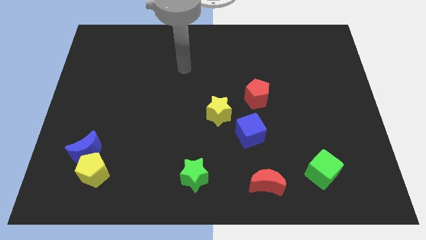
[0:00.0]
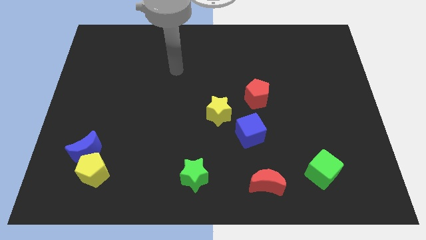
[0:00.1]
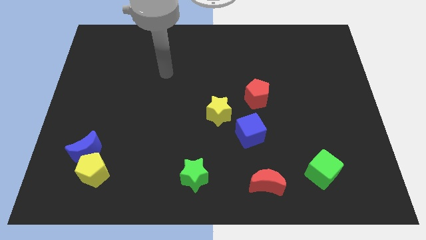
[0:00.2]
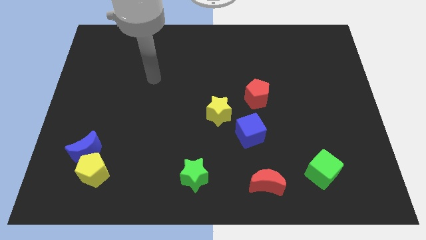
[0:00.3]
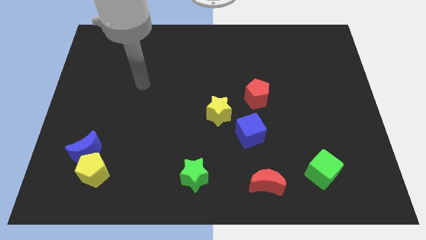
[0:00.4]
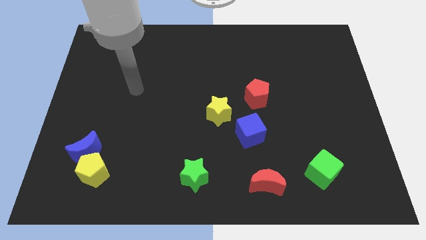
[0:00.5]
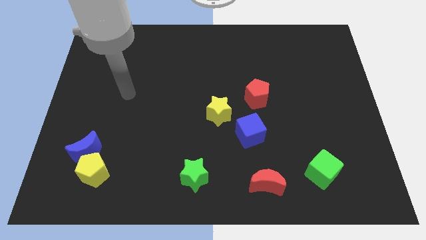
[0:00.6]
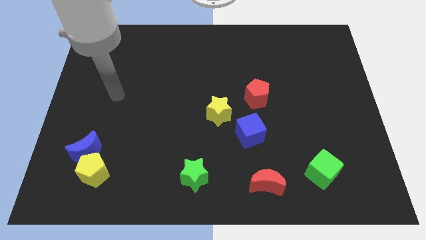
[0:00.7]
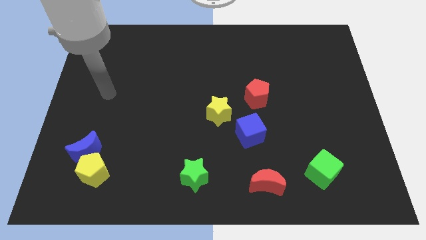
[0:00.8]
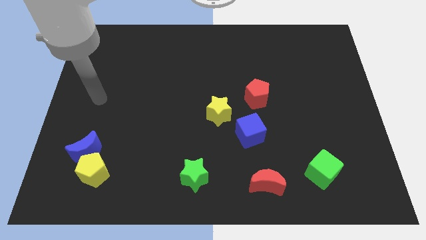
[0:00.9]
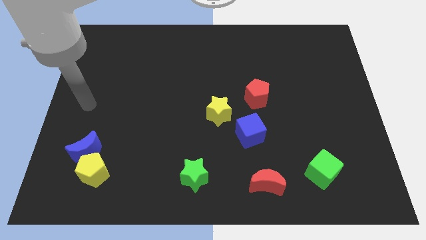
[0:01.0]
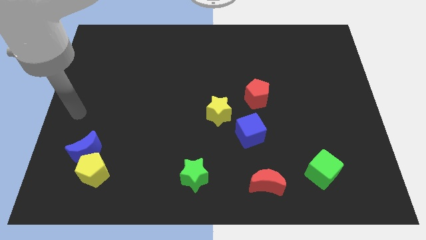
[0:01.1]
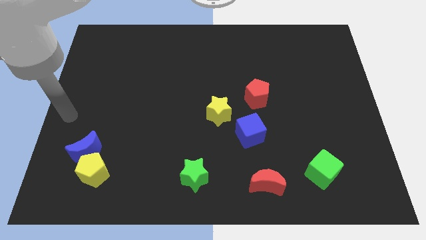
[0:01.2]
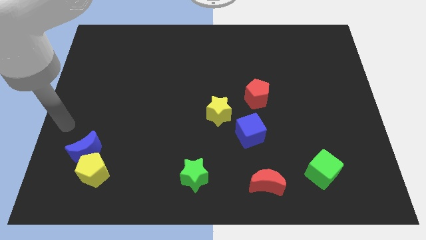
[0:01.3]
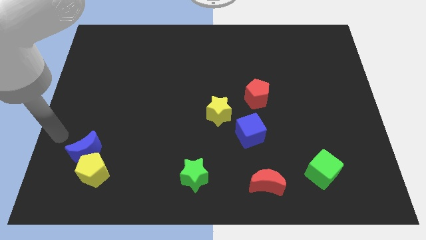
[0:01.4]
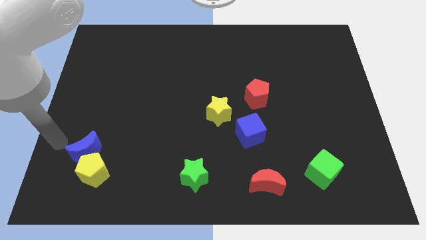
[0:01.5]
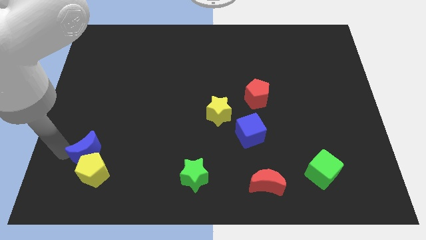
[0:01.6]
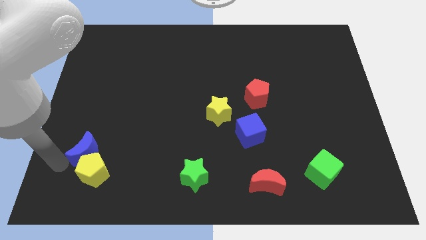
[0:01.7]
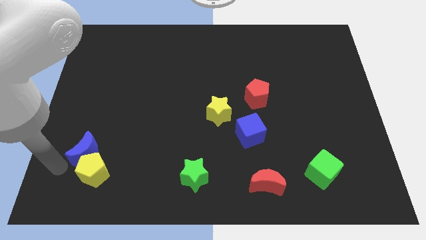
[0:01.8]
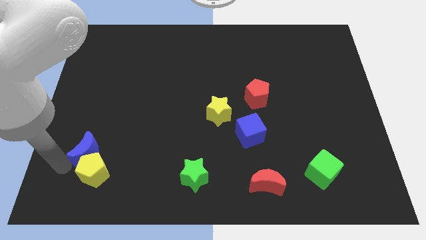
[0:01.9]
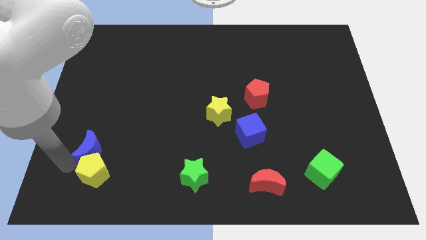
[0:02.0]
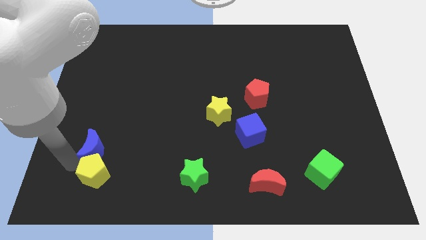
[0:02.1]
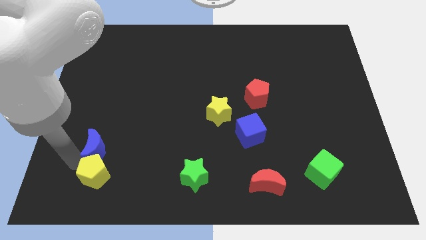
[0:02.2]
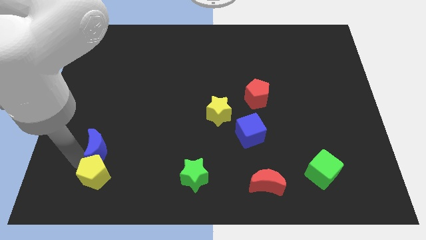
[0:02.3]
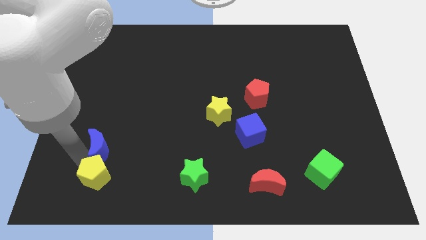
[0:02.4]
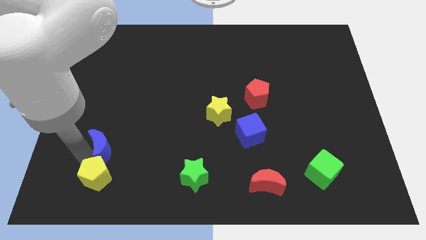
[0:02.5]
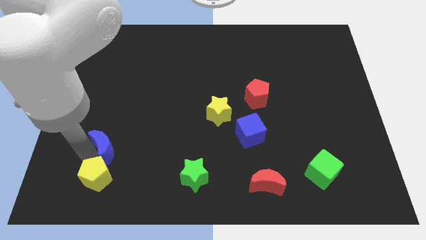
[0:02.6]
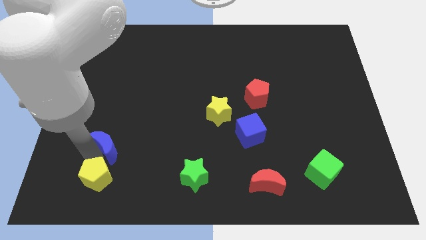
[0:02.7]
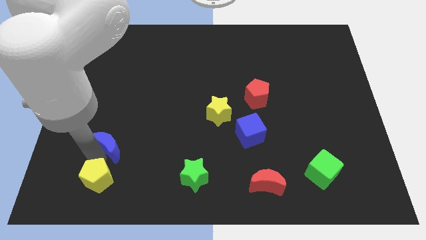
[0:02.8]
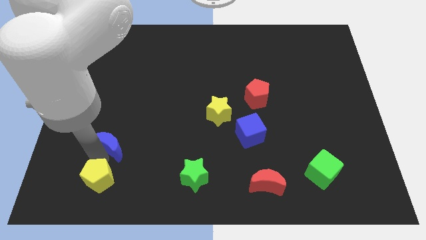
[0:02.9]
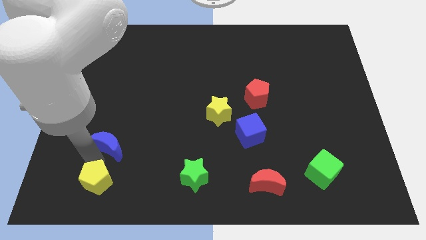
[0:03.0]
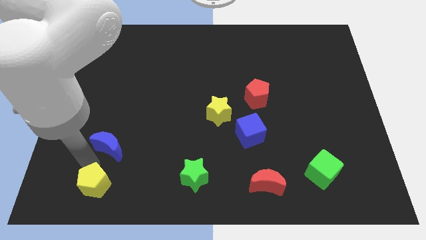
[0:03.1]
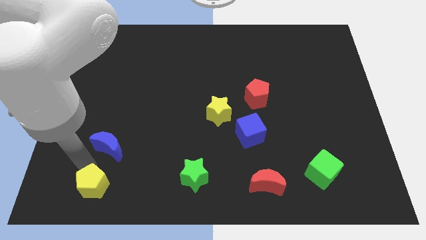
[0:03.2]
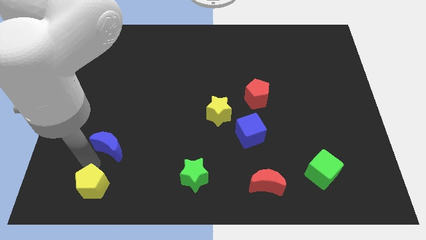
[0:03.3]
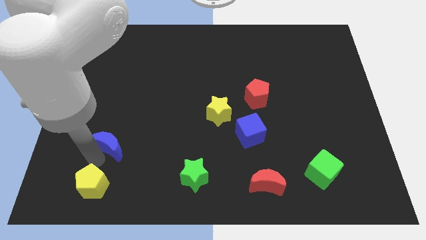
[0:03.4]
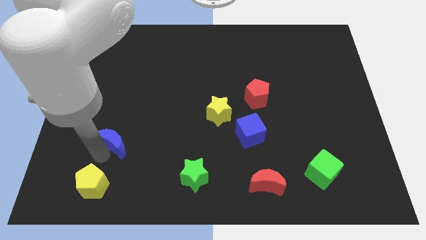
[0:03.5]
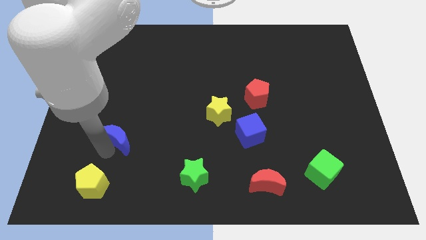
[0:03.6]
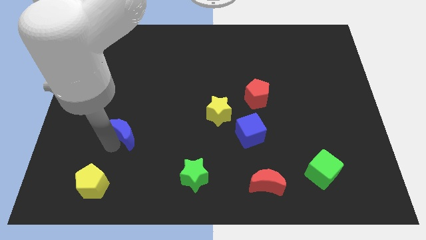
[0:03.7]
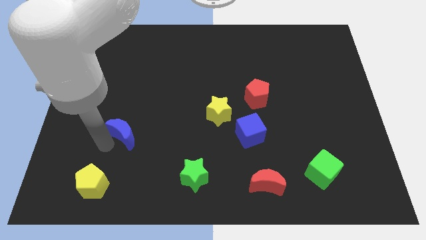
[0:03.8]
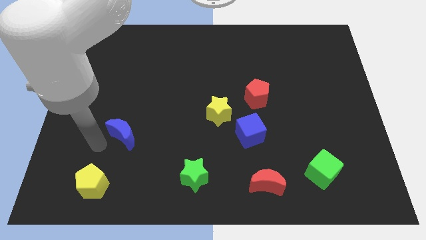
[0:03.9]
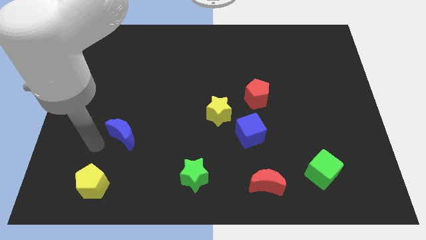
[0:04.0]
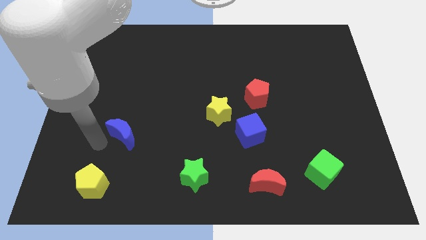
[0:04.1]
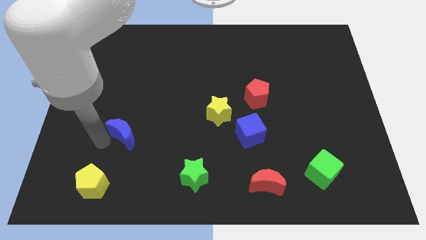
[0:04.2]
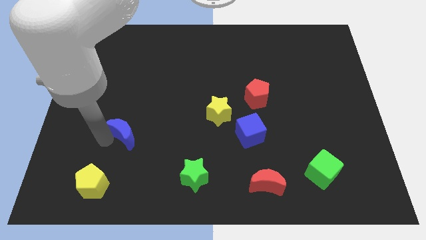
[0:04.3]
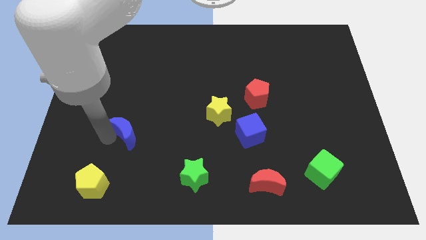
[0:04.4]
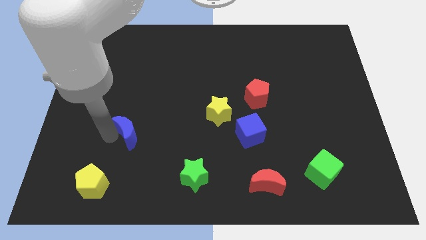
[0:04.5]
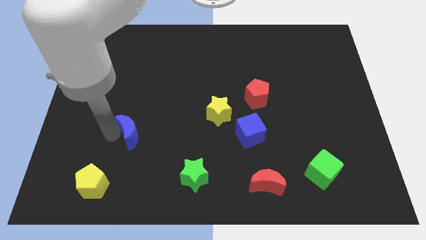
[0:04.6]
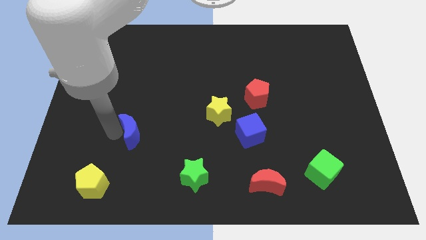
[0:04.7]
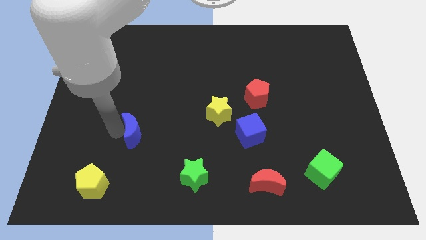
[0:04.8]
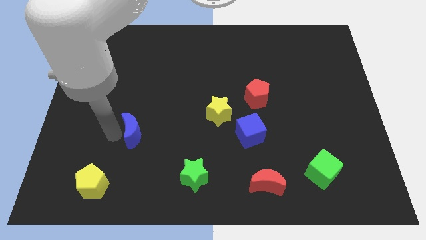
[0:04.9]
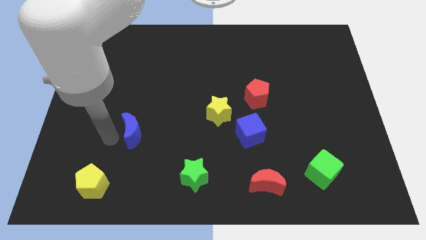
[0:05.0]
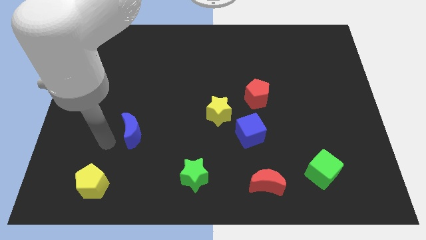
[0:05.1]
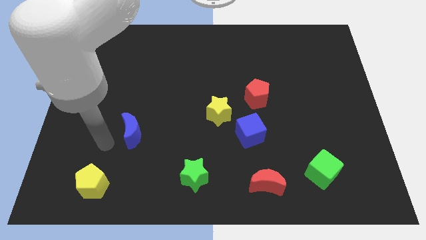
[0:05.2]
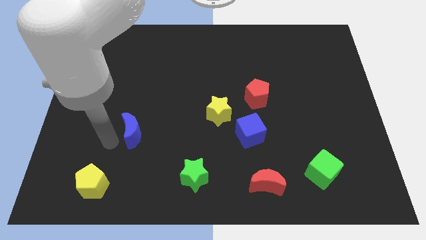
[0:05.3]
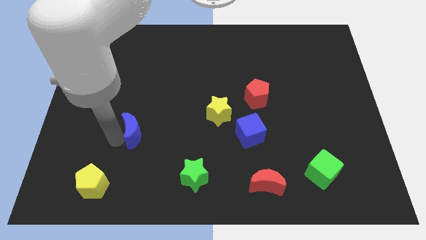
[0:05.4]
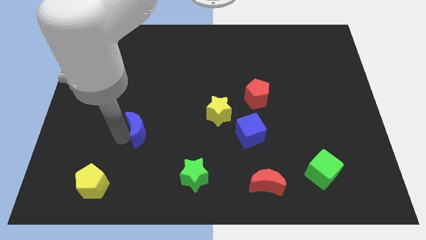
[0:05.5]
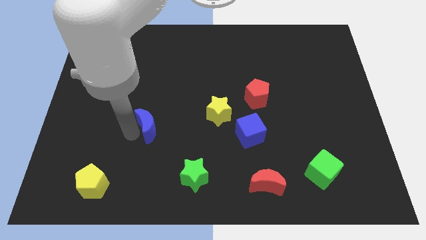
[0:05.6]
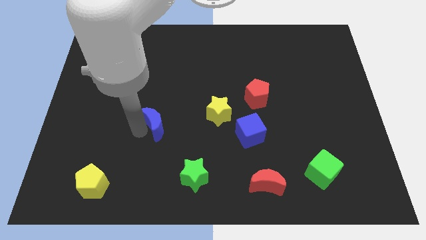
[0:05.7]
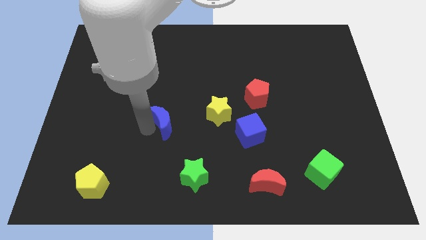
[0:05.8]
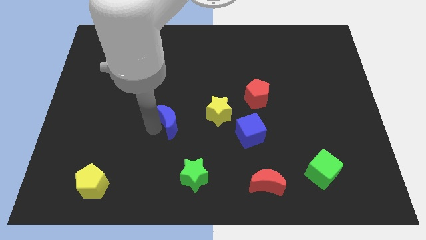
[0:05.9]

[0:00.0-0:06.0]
push the blue moon to the center

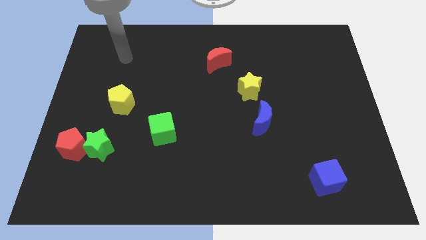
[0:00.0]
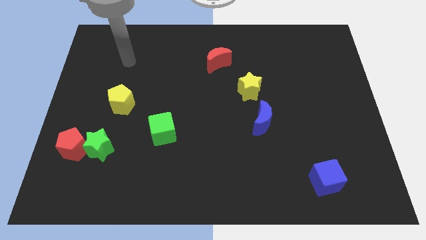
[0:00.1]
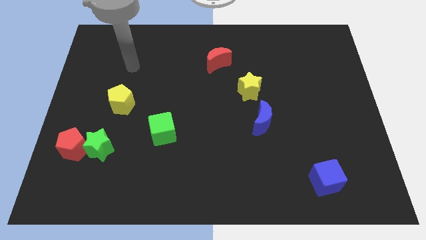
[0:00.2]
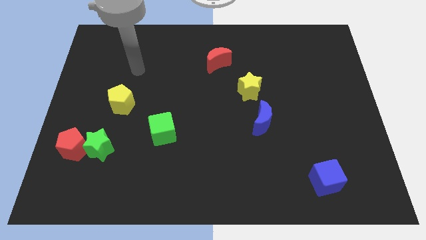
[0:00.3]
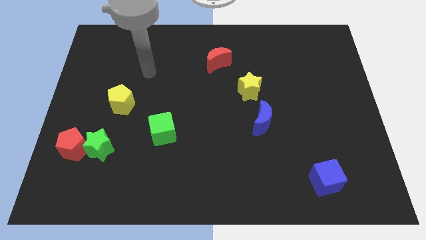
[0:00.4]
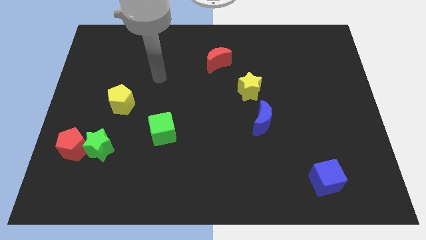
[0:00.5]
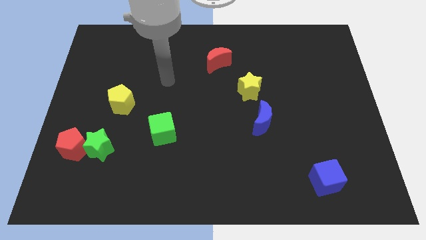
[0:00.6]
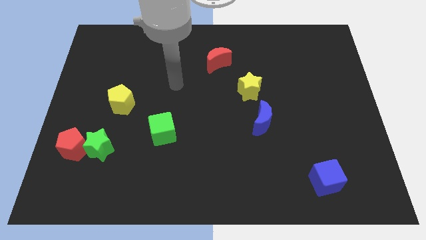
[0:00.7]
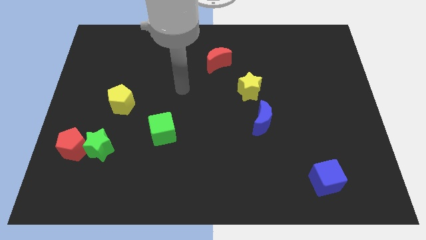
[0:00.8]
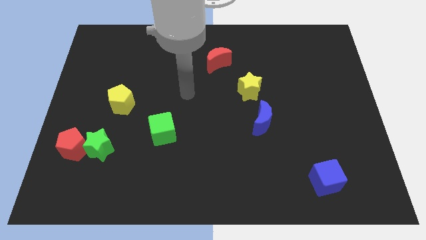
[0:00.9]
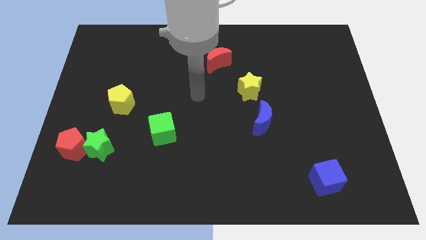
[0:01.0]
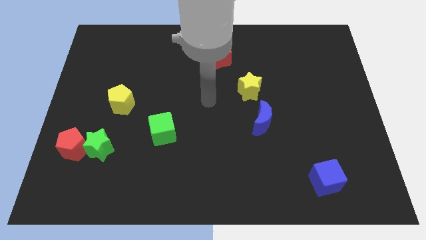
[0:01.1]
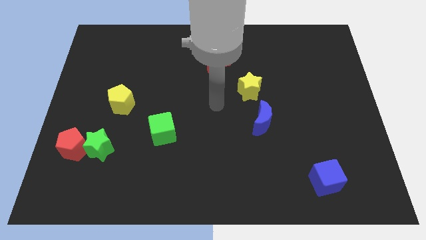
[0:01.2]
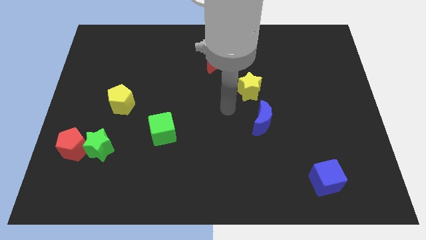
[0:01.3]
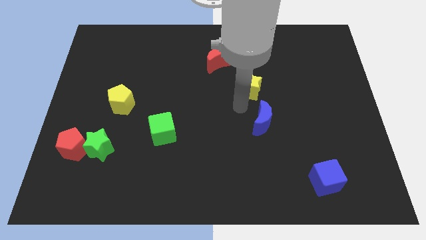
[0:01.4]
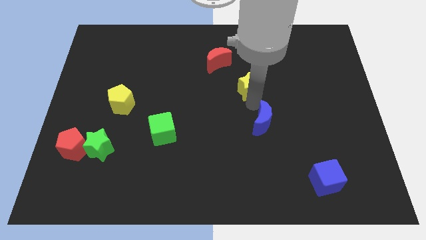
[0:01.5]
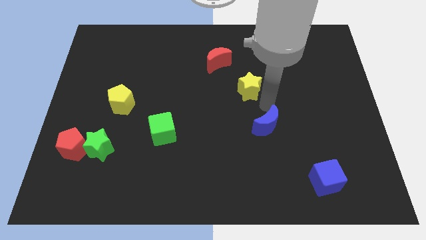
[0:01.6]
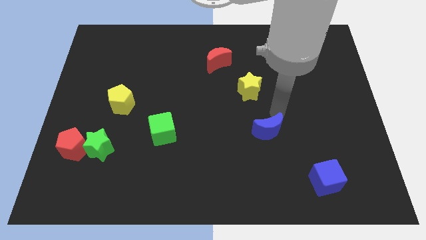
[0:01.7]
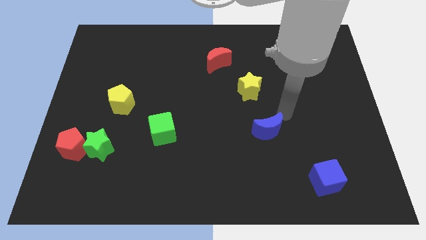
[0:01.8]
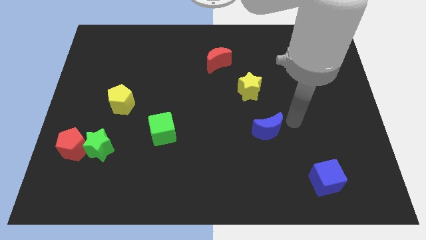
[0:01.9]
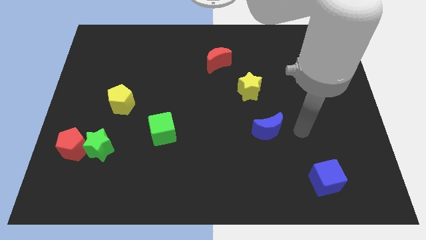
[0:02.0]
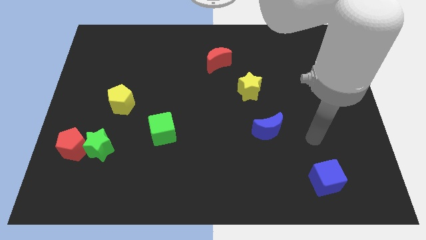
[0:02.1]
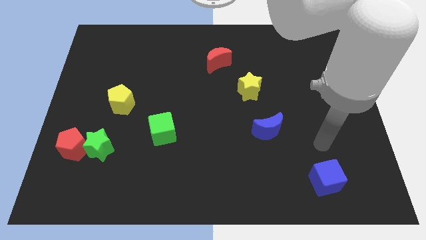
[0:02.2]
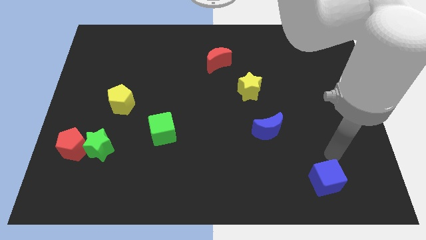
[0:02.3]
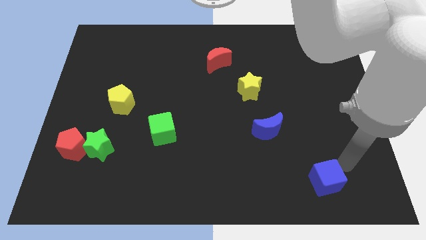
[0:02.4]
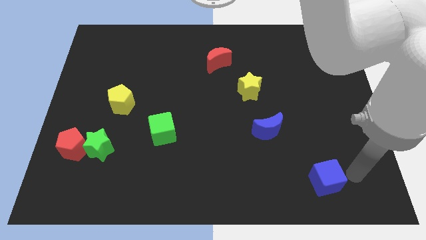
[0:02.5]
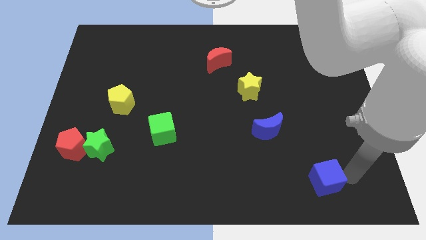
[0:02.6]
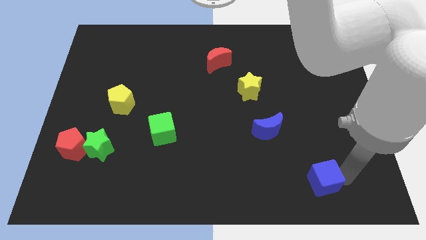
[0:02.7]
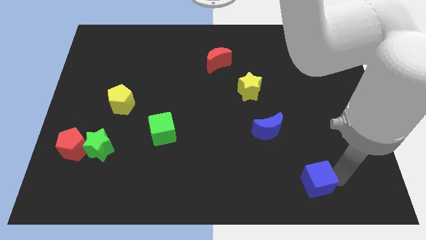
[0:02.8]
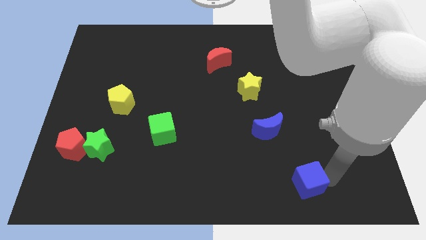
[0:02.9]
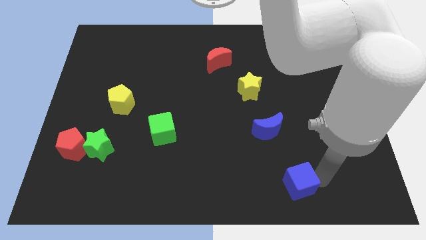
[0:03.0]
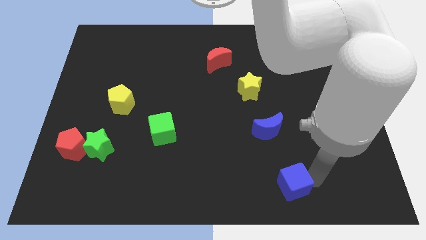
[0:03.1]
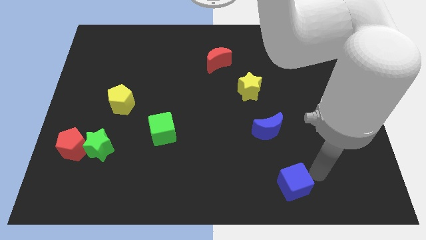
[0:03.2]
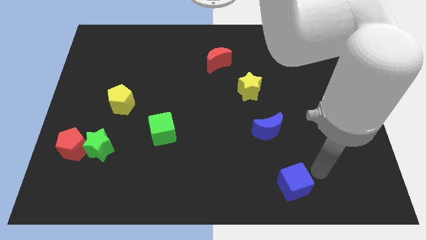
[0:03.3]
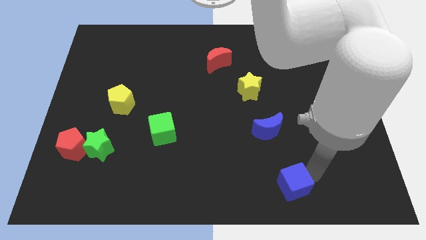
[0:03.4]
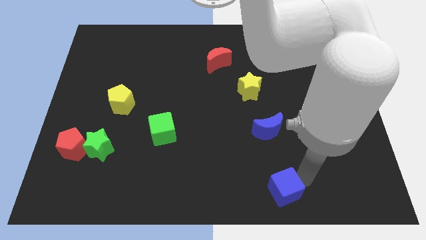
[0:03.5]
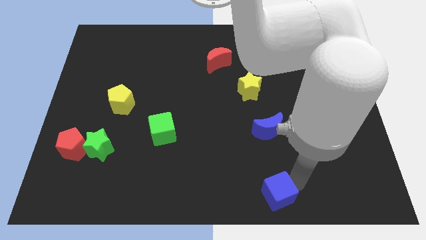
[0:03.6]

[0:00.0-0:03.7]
slide the blue cube to the bottom side
